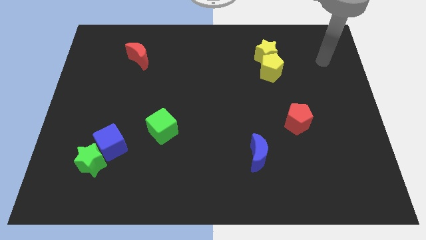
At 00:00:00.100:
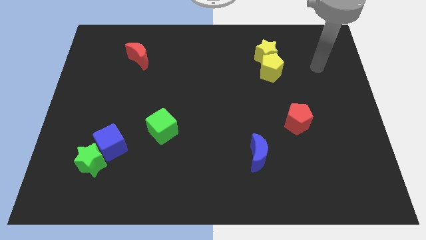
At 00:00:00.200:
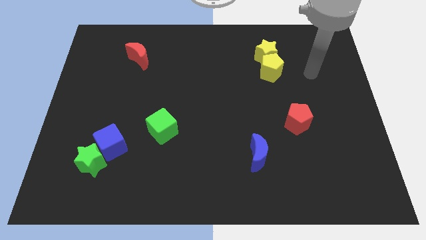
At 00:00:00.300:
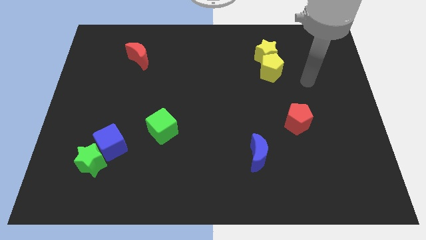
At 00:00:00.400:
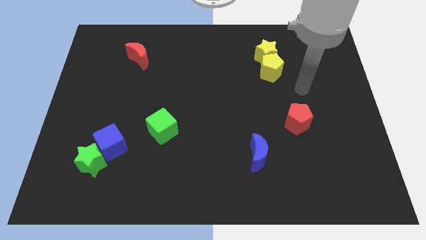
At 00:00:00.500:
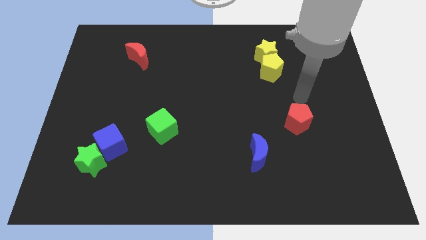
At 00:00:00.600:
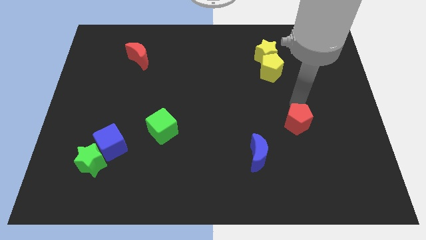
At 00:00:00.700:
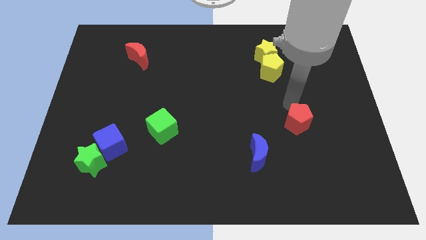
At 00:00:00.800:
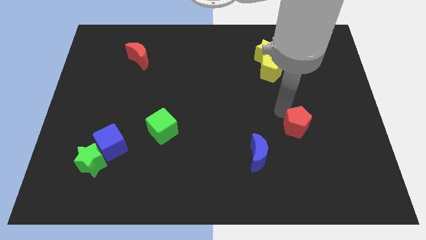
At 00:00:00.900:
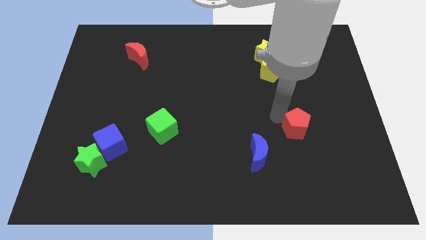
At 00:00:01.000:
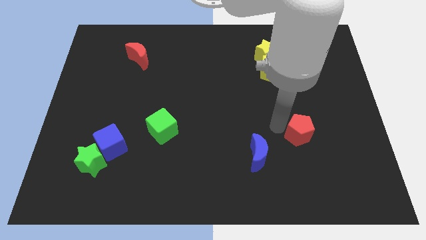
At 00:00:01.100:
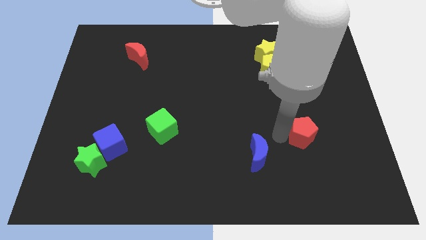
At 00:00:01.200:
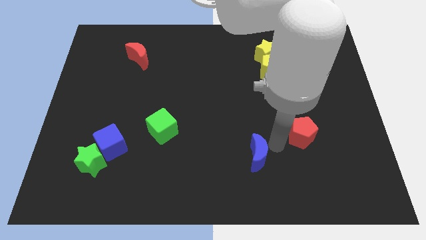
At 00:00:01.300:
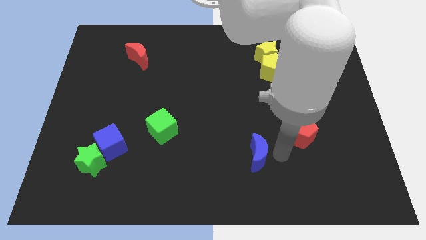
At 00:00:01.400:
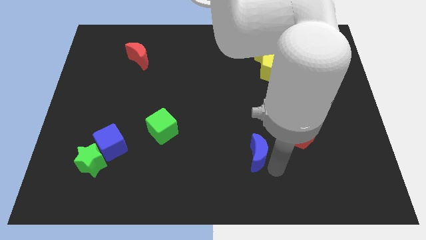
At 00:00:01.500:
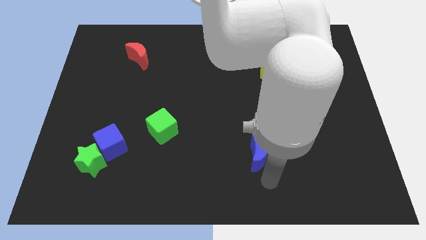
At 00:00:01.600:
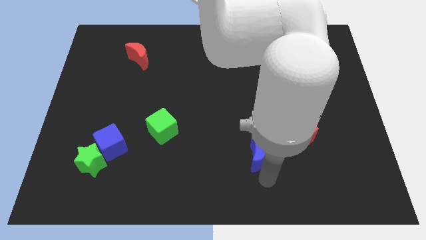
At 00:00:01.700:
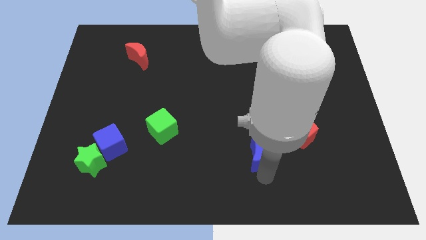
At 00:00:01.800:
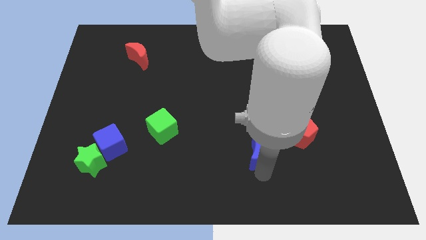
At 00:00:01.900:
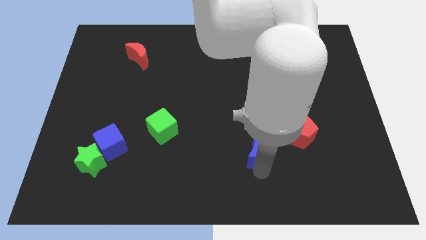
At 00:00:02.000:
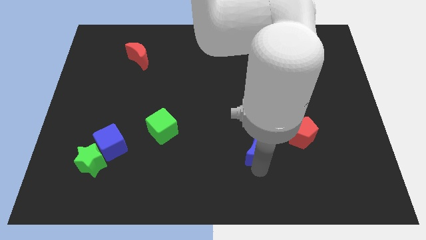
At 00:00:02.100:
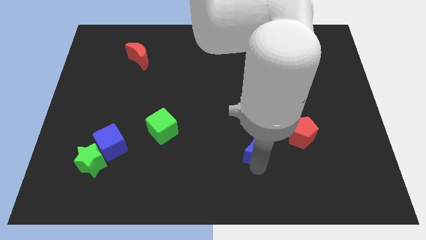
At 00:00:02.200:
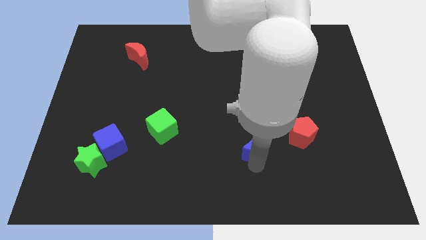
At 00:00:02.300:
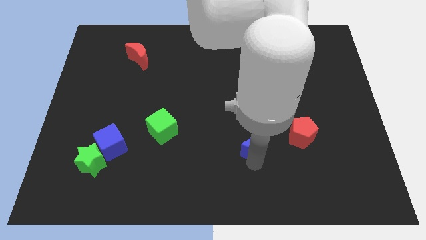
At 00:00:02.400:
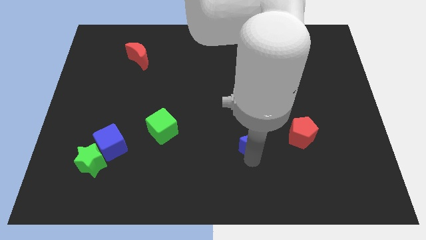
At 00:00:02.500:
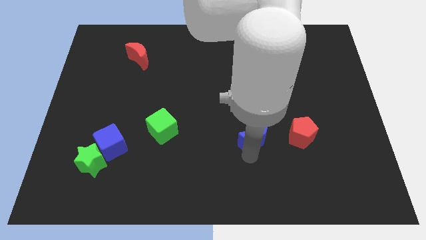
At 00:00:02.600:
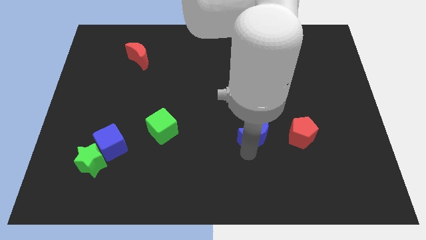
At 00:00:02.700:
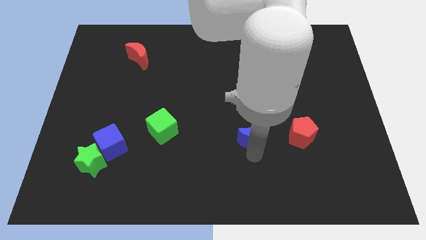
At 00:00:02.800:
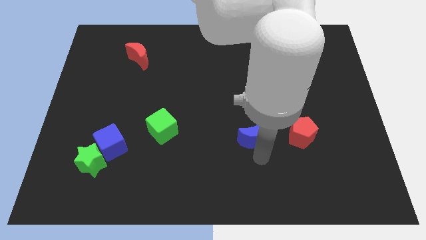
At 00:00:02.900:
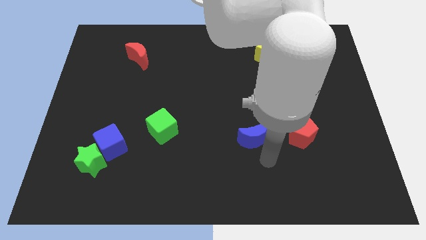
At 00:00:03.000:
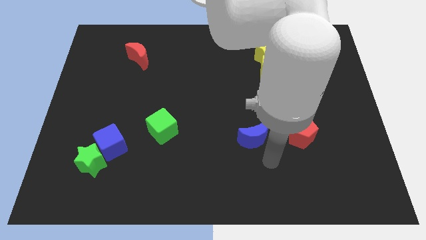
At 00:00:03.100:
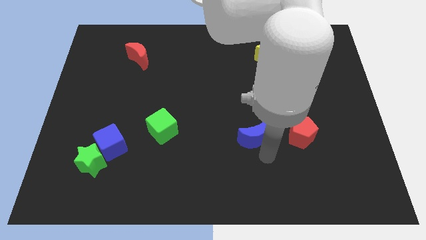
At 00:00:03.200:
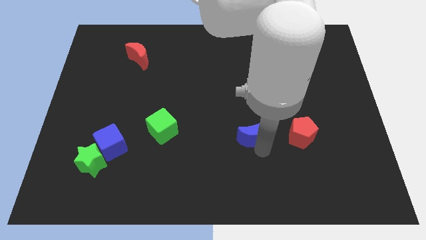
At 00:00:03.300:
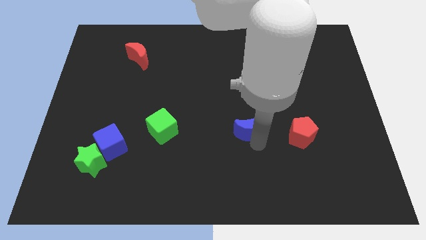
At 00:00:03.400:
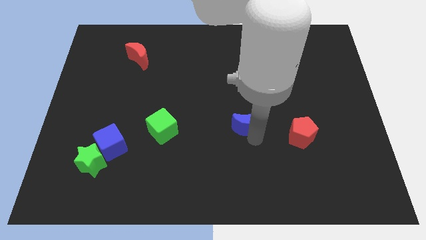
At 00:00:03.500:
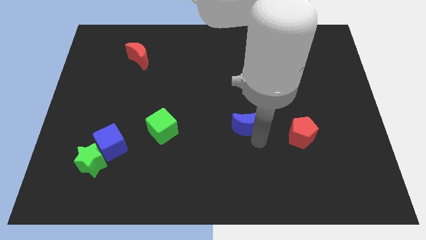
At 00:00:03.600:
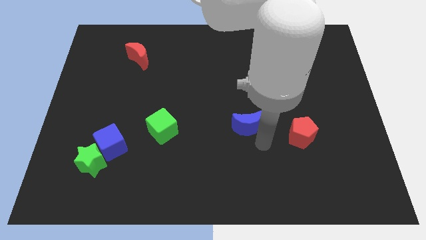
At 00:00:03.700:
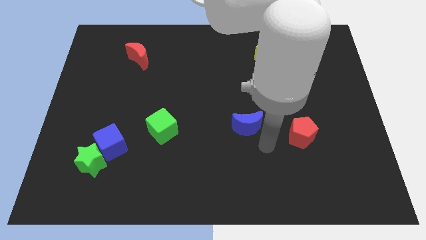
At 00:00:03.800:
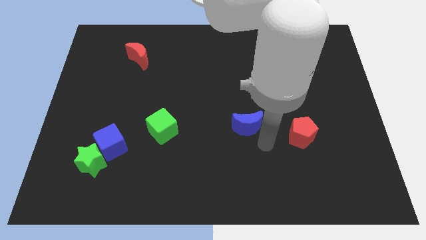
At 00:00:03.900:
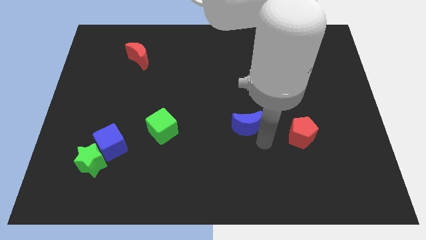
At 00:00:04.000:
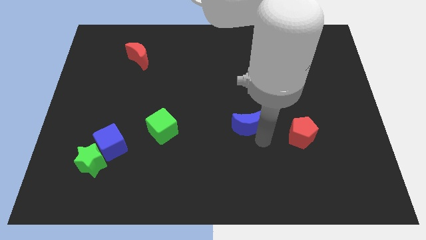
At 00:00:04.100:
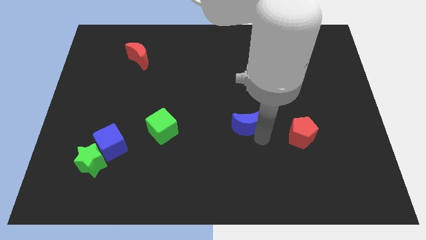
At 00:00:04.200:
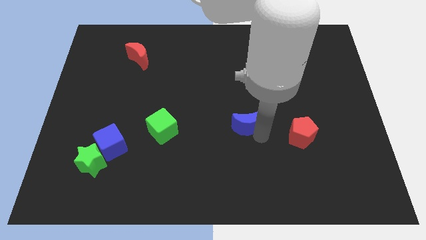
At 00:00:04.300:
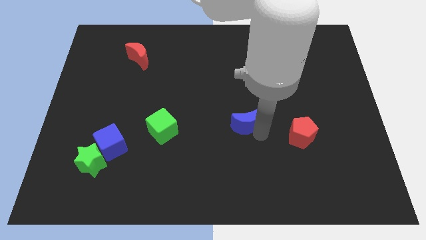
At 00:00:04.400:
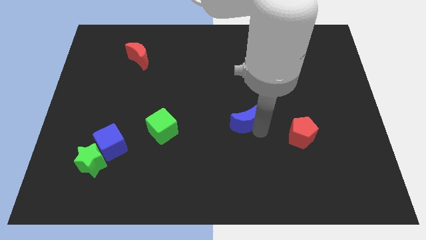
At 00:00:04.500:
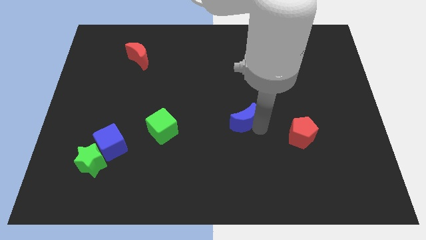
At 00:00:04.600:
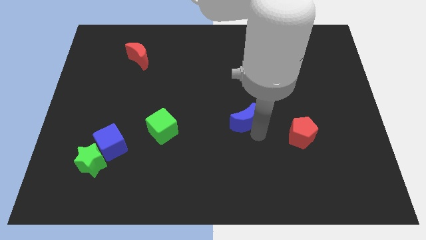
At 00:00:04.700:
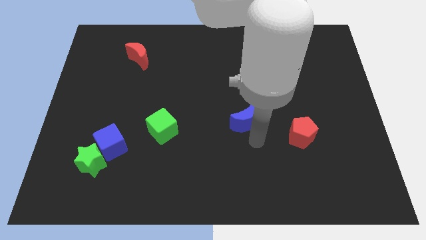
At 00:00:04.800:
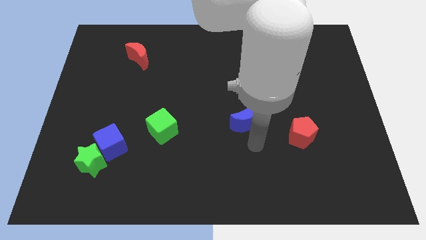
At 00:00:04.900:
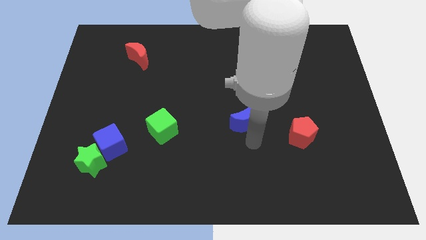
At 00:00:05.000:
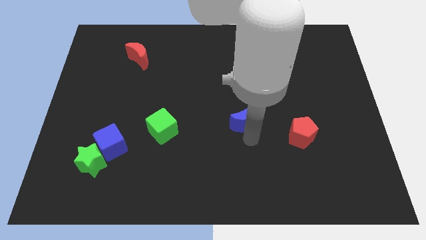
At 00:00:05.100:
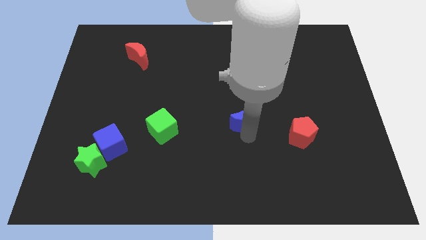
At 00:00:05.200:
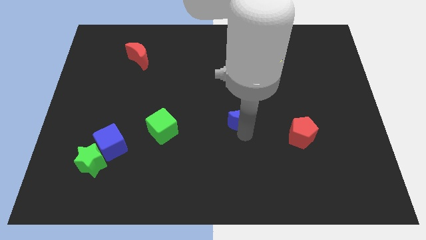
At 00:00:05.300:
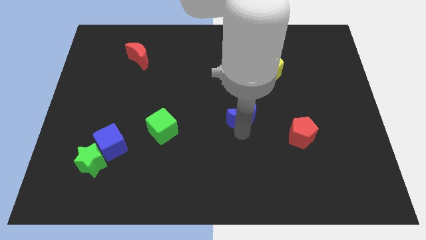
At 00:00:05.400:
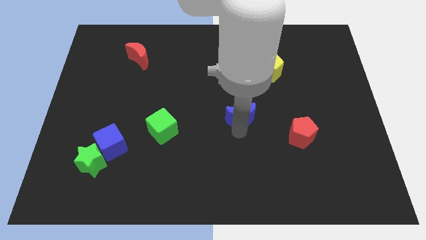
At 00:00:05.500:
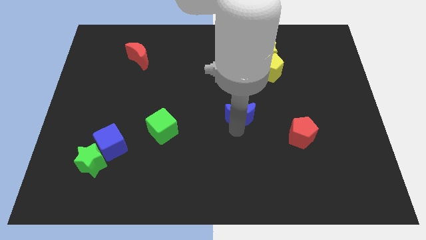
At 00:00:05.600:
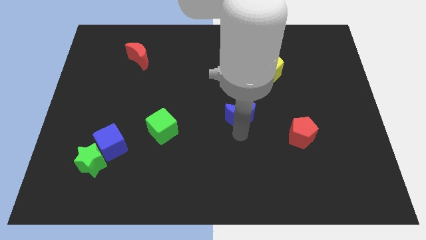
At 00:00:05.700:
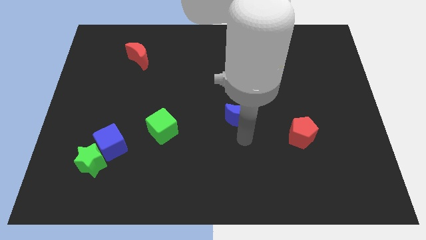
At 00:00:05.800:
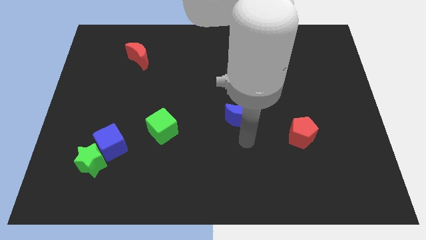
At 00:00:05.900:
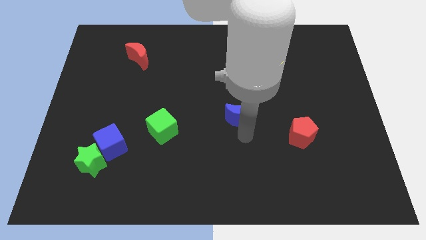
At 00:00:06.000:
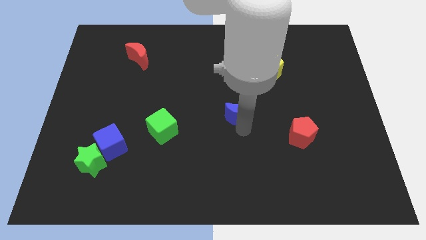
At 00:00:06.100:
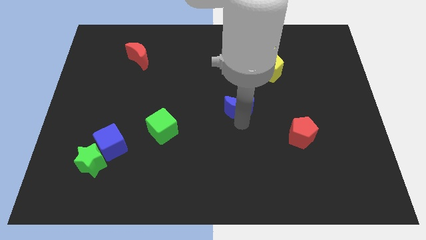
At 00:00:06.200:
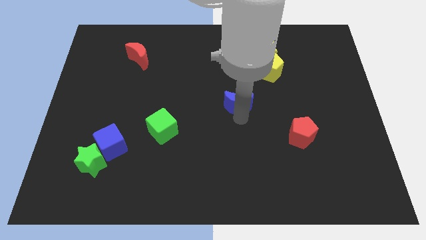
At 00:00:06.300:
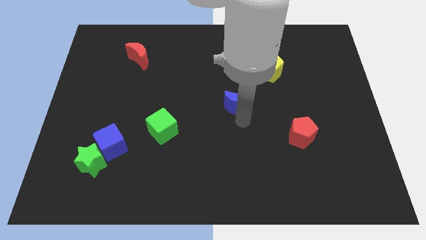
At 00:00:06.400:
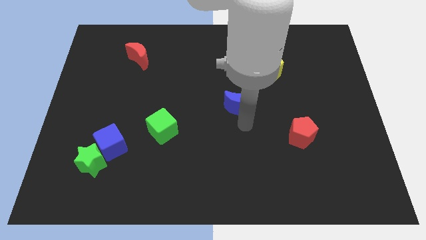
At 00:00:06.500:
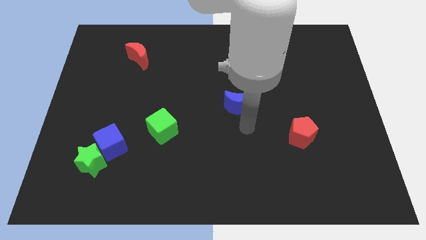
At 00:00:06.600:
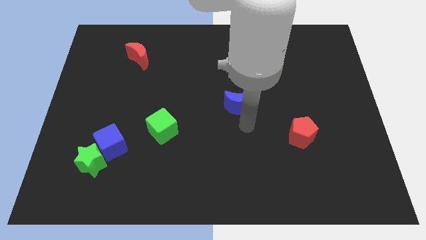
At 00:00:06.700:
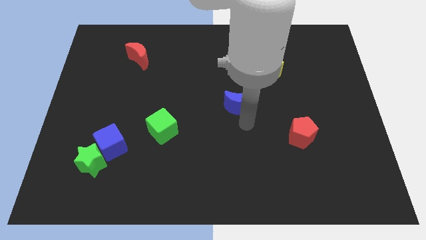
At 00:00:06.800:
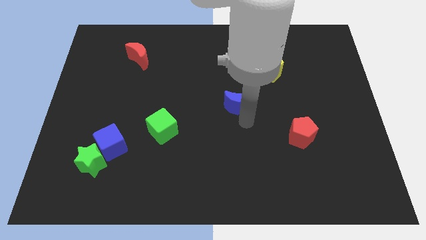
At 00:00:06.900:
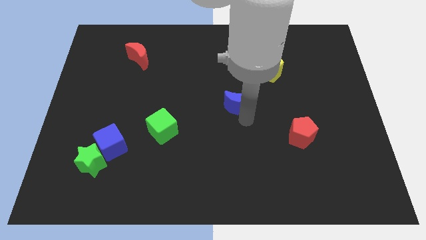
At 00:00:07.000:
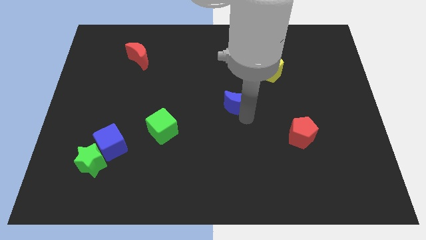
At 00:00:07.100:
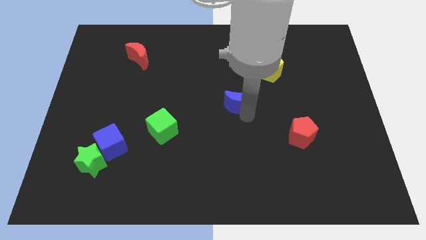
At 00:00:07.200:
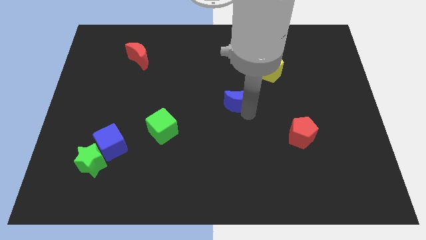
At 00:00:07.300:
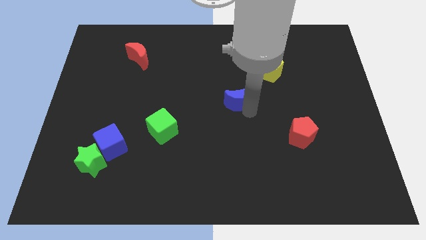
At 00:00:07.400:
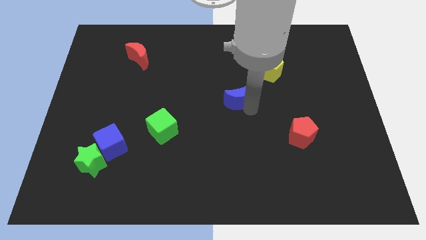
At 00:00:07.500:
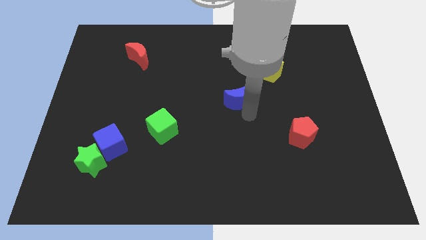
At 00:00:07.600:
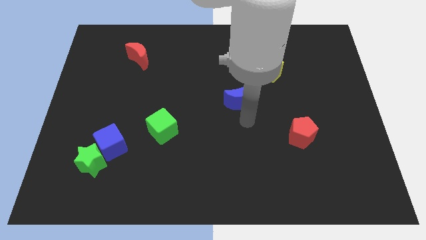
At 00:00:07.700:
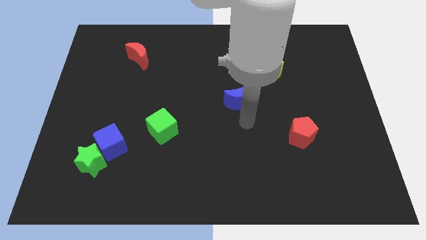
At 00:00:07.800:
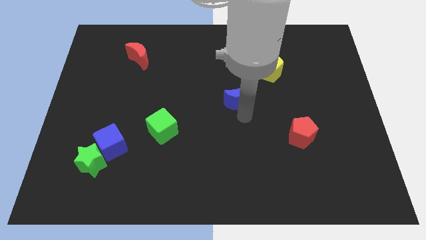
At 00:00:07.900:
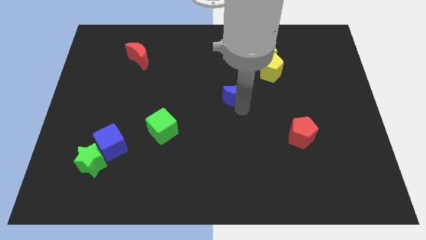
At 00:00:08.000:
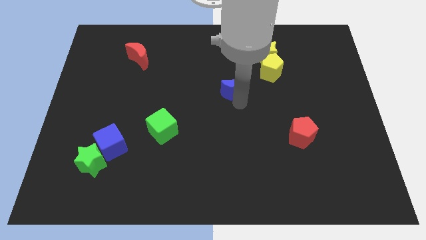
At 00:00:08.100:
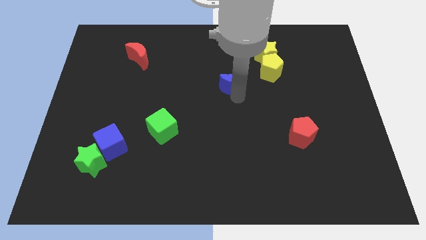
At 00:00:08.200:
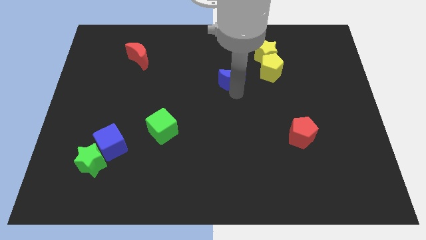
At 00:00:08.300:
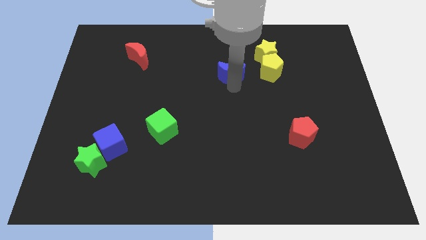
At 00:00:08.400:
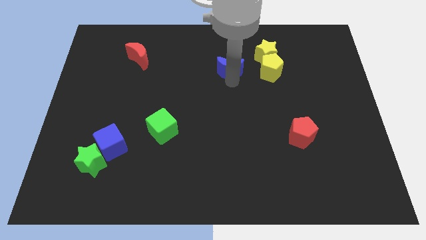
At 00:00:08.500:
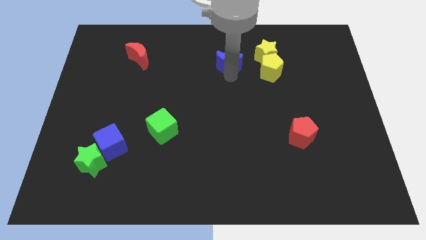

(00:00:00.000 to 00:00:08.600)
push the blue moon left of the yellow star
